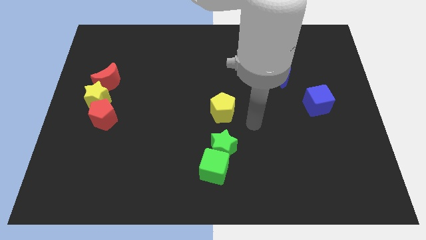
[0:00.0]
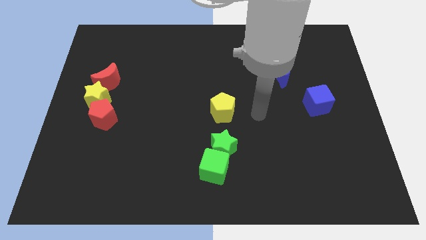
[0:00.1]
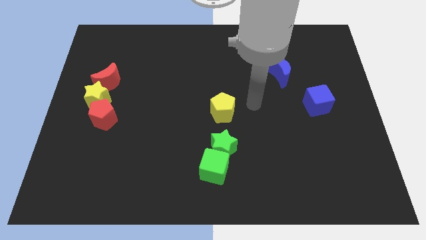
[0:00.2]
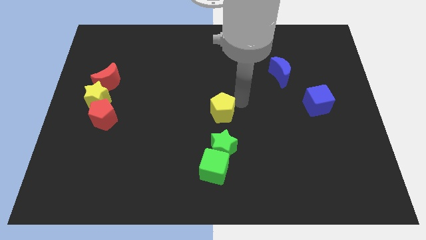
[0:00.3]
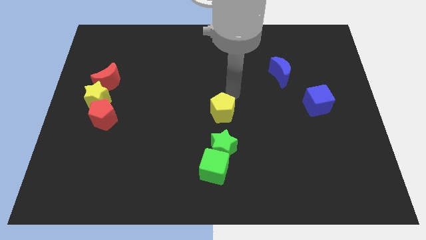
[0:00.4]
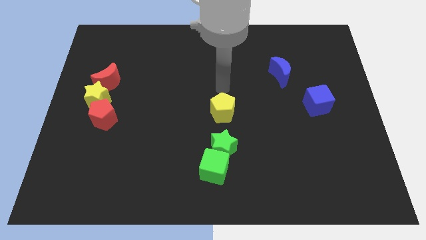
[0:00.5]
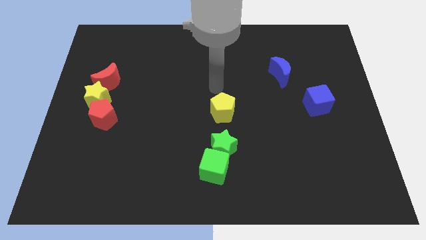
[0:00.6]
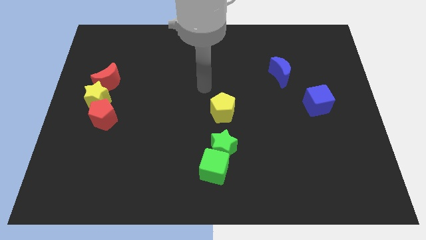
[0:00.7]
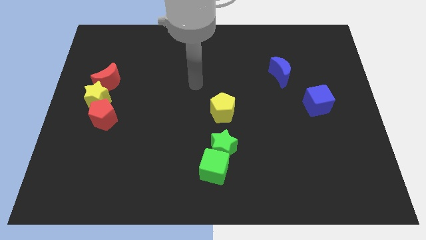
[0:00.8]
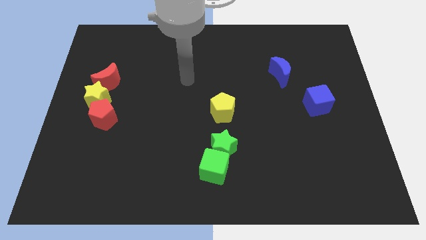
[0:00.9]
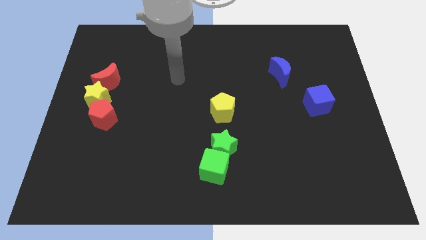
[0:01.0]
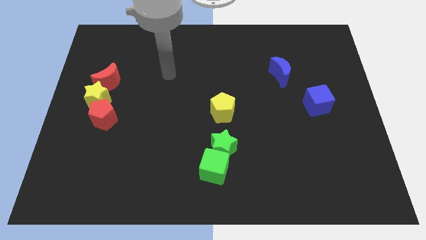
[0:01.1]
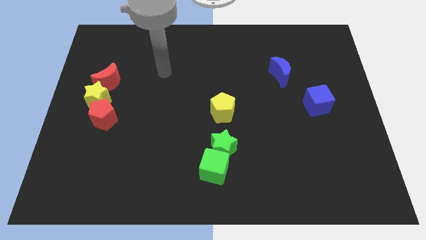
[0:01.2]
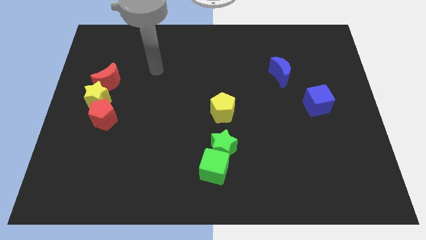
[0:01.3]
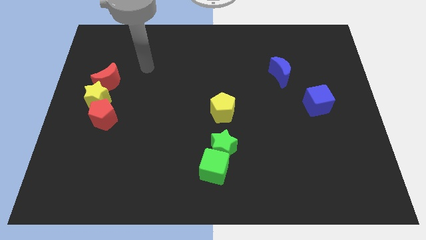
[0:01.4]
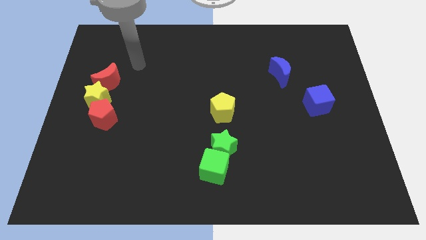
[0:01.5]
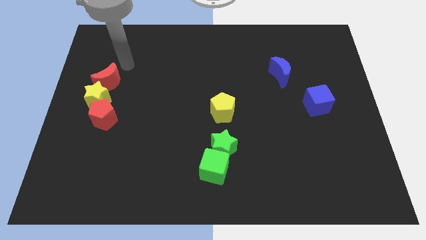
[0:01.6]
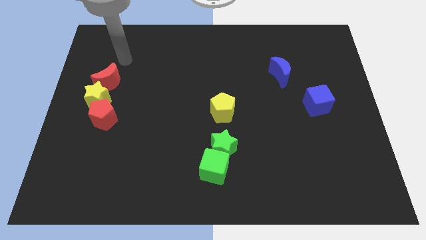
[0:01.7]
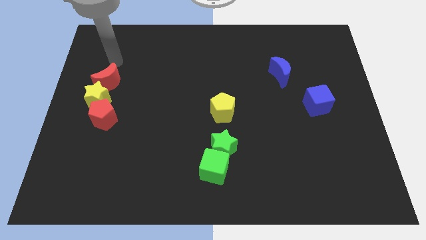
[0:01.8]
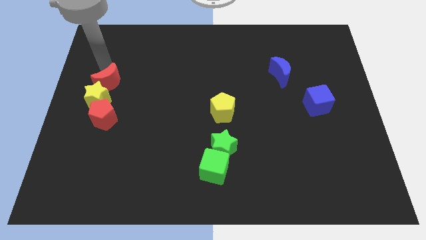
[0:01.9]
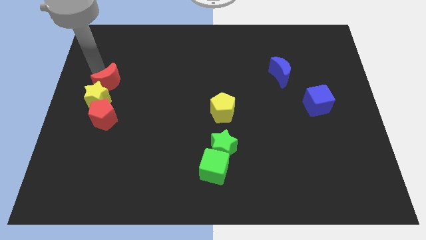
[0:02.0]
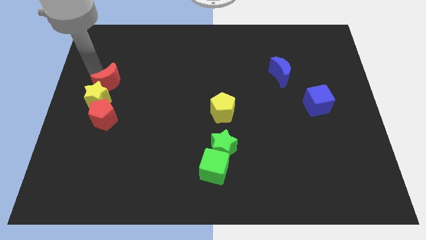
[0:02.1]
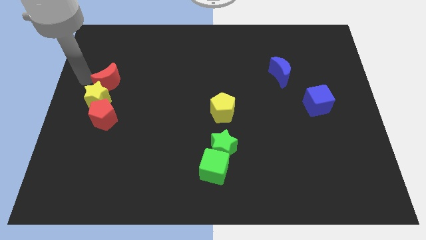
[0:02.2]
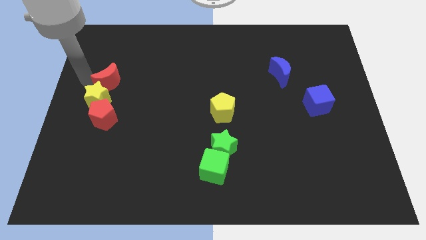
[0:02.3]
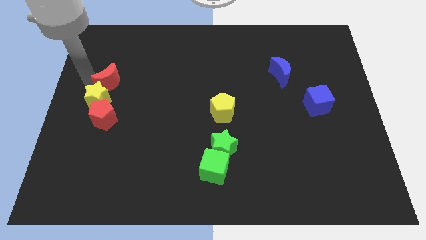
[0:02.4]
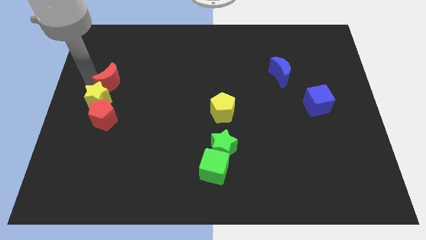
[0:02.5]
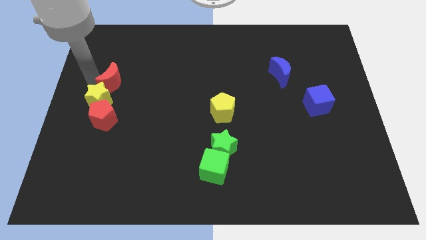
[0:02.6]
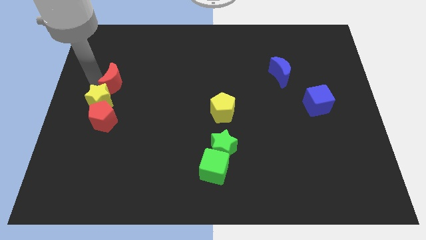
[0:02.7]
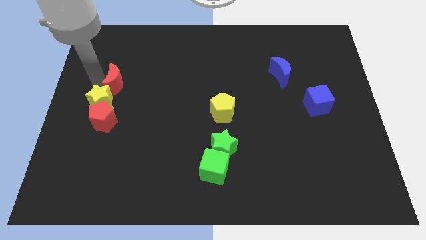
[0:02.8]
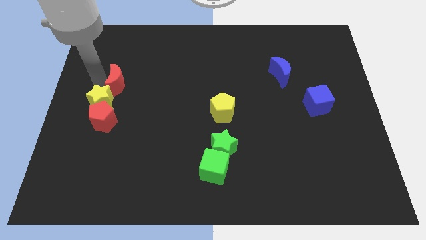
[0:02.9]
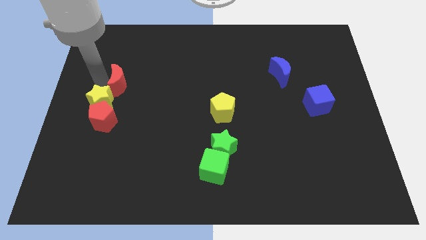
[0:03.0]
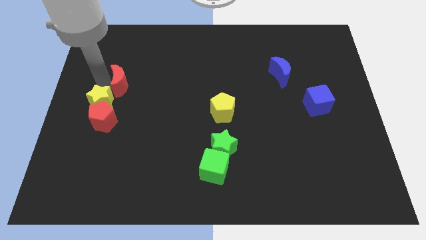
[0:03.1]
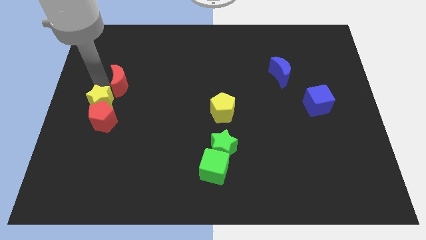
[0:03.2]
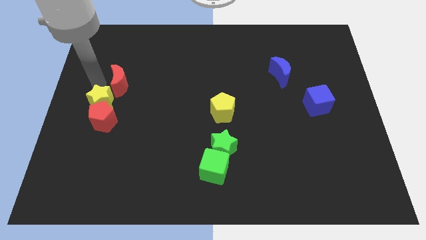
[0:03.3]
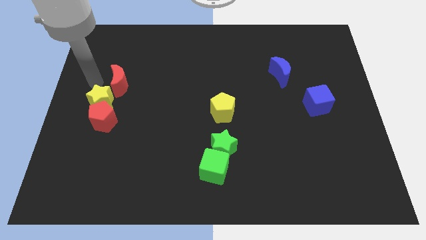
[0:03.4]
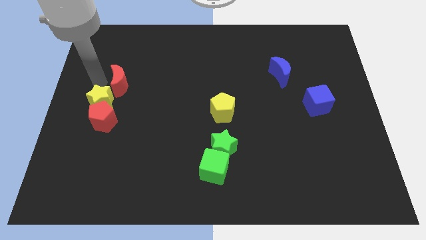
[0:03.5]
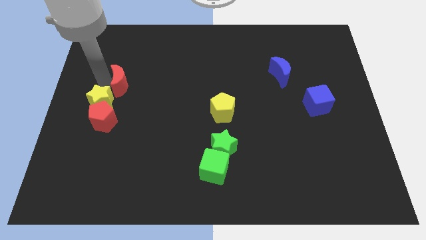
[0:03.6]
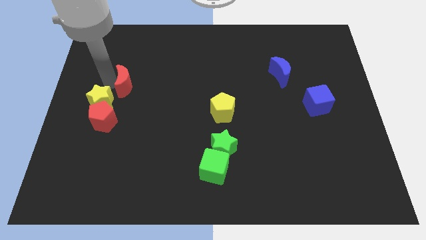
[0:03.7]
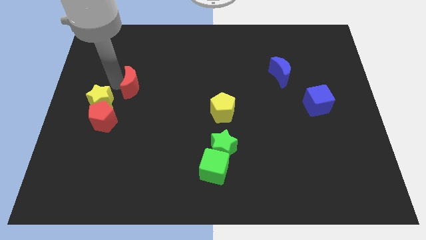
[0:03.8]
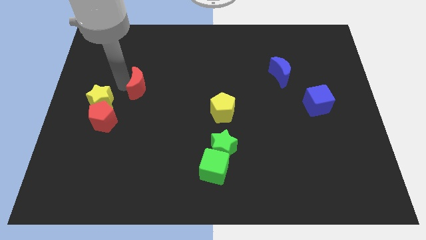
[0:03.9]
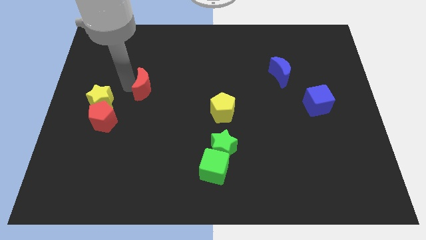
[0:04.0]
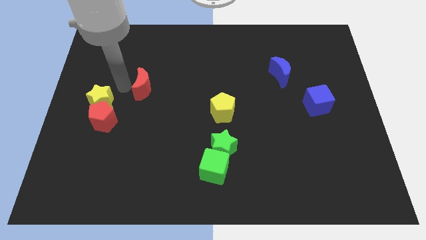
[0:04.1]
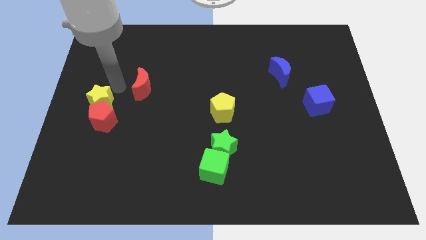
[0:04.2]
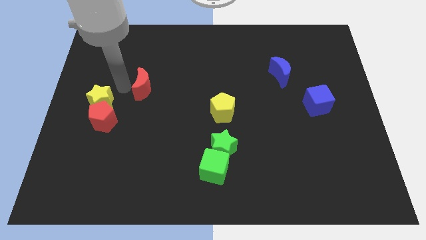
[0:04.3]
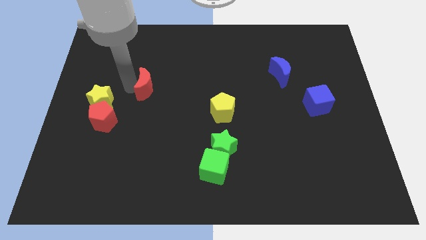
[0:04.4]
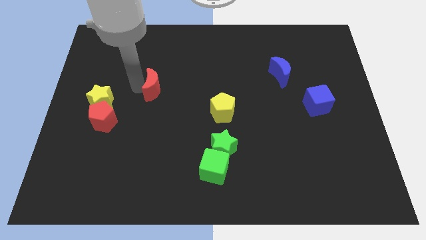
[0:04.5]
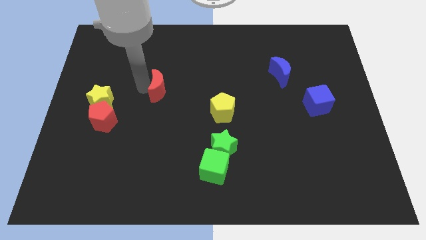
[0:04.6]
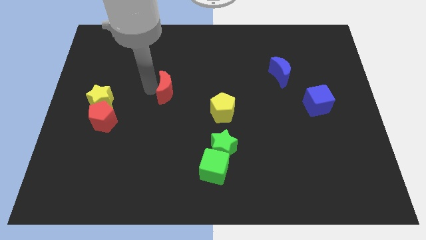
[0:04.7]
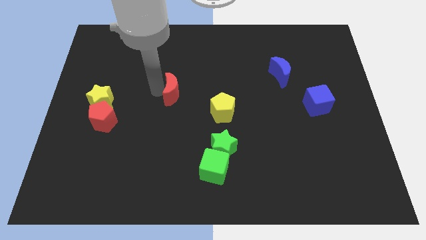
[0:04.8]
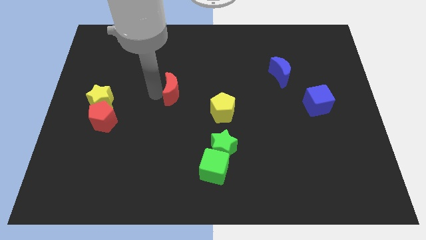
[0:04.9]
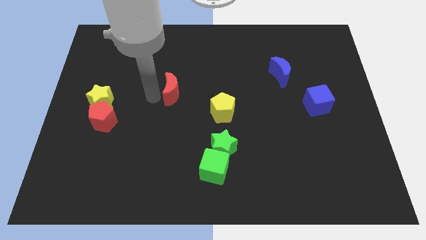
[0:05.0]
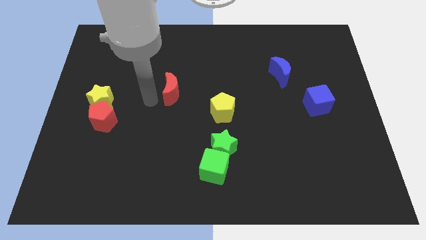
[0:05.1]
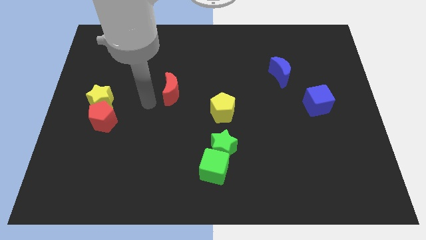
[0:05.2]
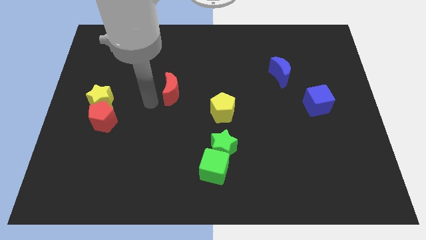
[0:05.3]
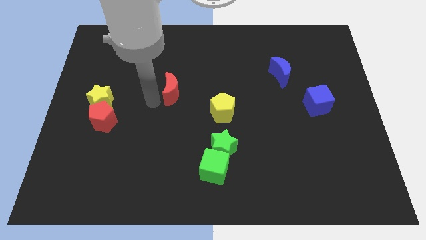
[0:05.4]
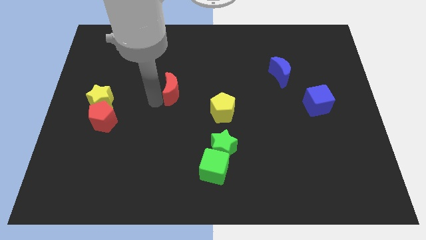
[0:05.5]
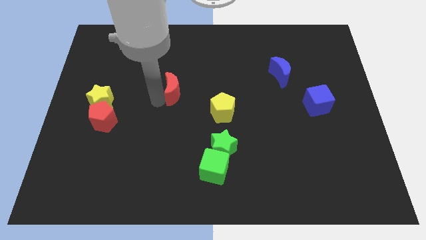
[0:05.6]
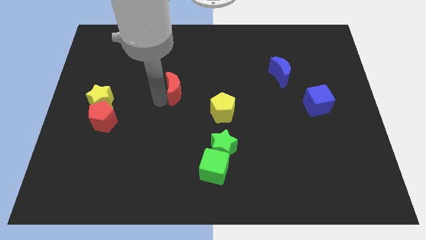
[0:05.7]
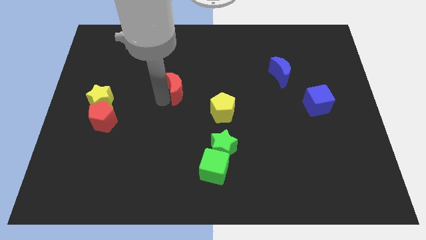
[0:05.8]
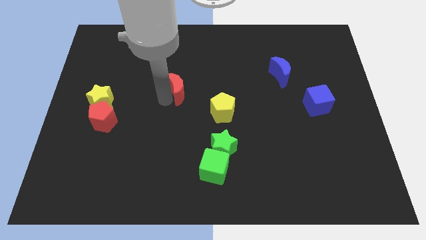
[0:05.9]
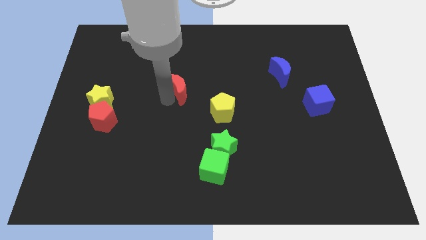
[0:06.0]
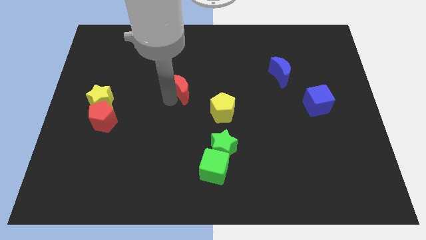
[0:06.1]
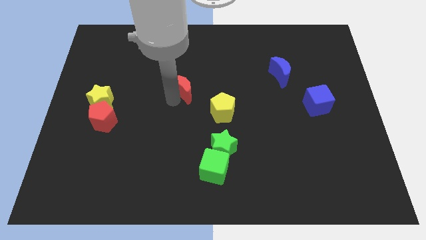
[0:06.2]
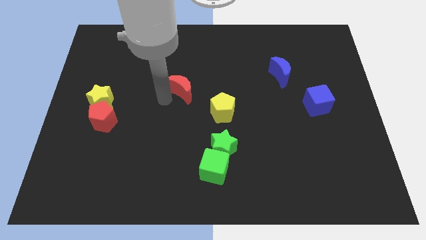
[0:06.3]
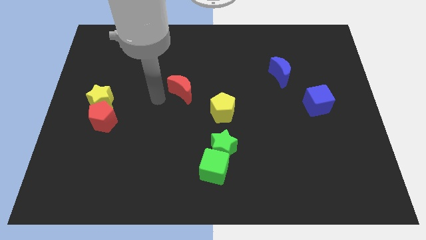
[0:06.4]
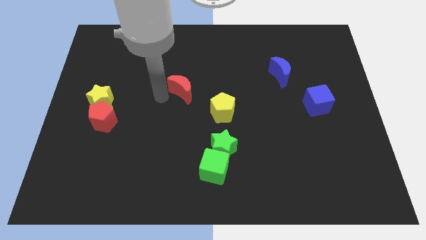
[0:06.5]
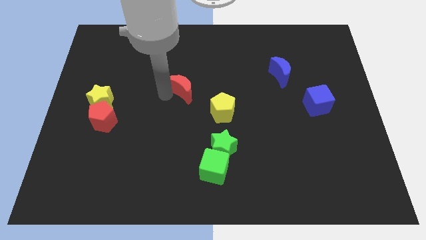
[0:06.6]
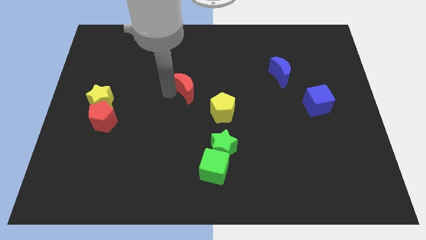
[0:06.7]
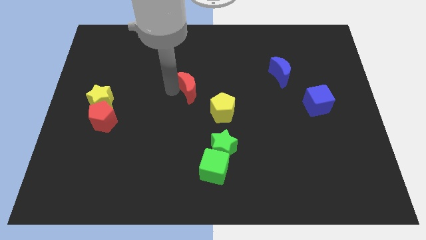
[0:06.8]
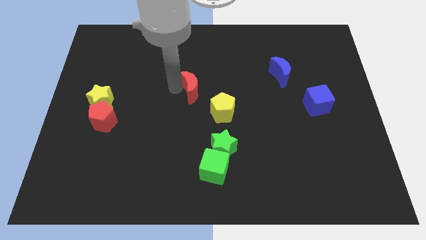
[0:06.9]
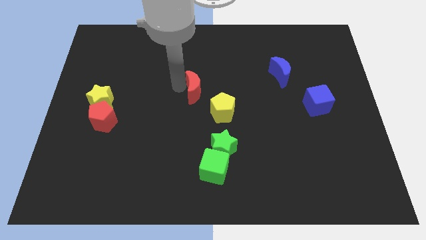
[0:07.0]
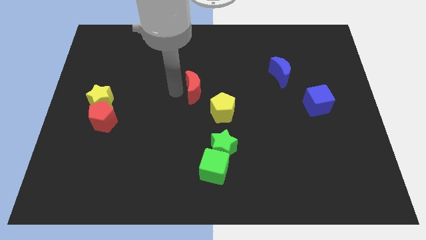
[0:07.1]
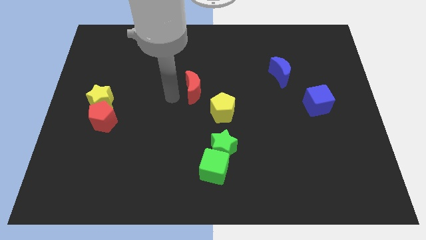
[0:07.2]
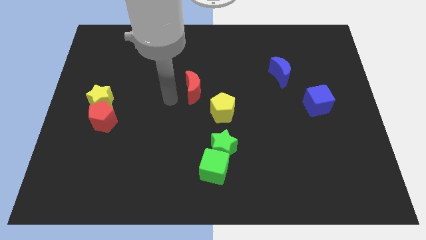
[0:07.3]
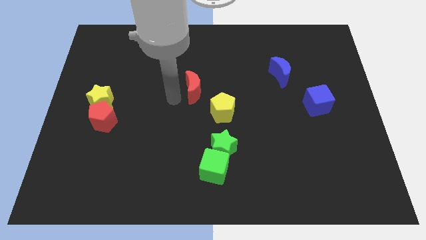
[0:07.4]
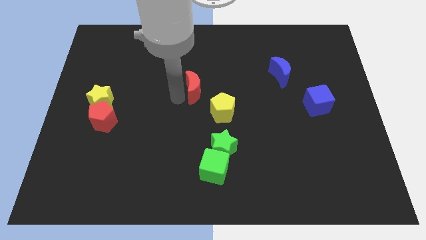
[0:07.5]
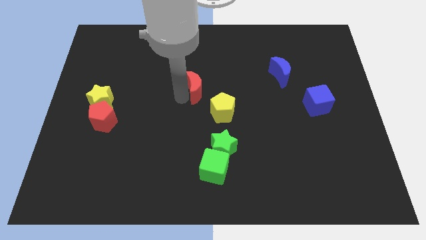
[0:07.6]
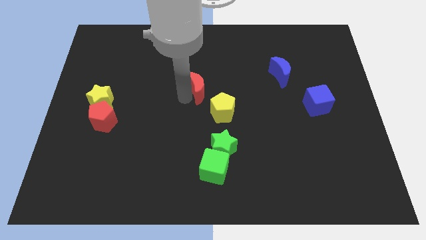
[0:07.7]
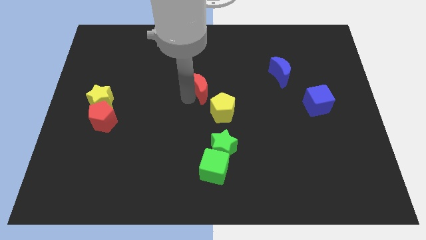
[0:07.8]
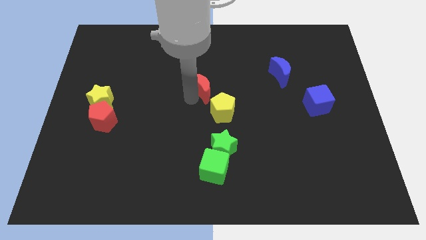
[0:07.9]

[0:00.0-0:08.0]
push the red moon to the top of the yellow pentagon
